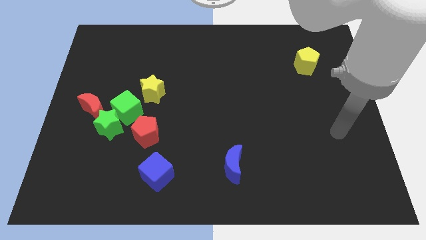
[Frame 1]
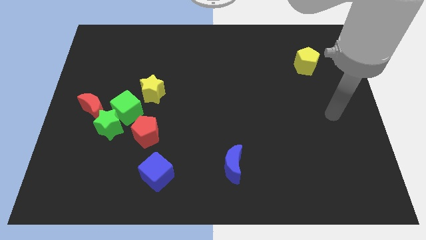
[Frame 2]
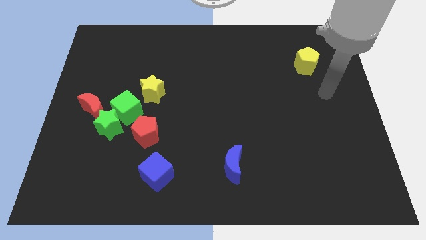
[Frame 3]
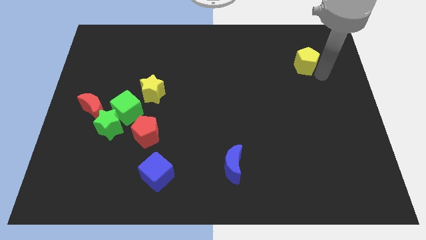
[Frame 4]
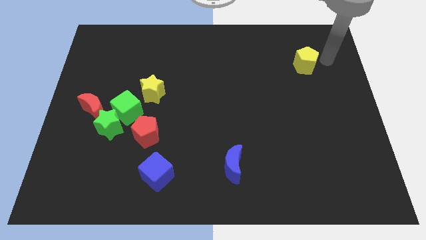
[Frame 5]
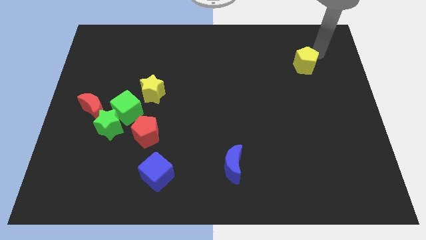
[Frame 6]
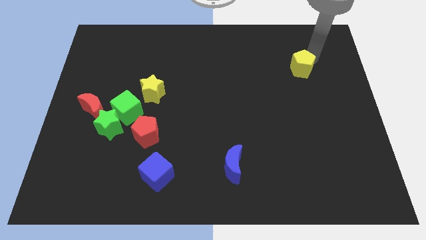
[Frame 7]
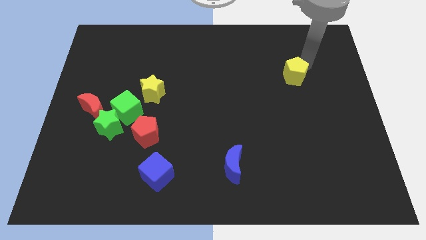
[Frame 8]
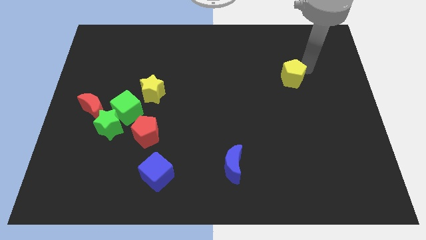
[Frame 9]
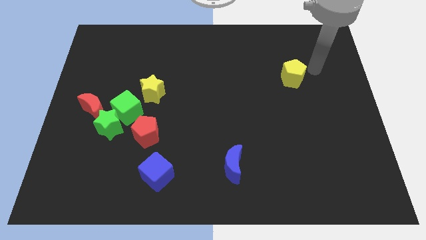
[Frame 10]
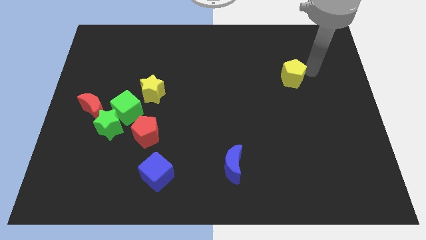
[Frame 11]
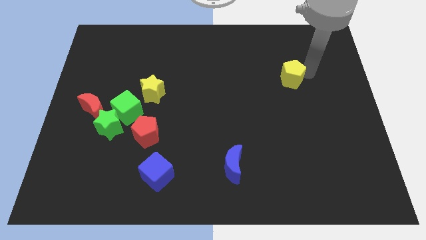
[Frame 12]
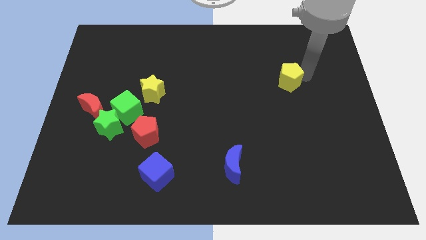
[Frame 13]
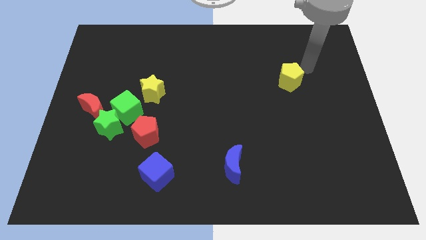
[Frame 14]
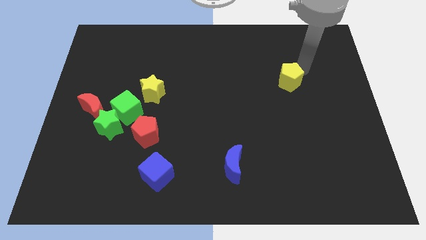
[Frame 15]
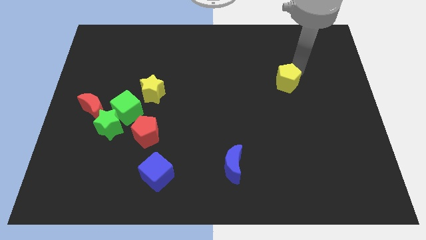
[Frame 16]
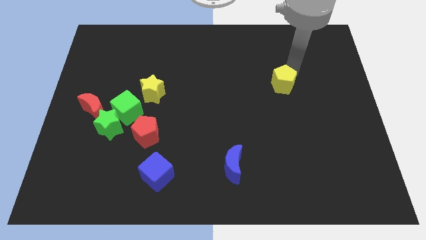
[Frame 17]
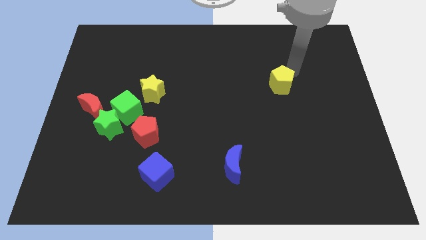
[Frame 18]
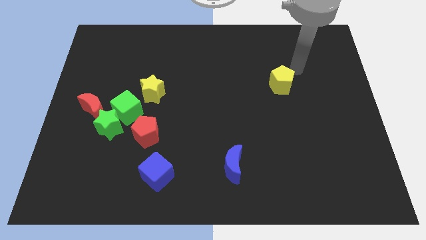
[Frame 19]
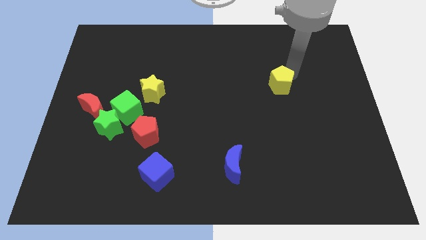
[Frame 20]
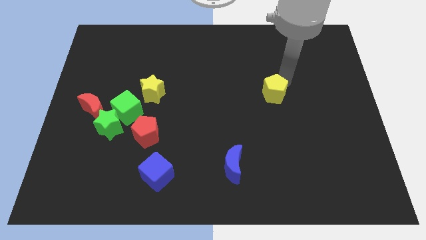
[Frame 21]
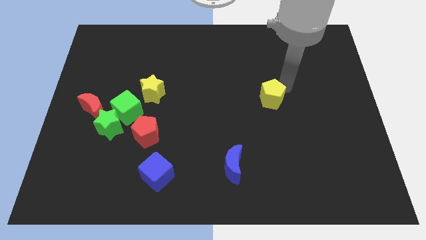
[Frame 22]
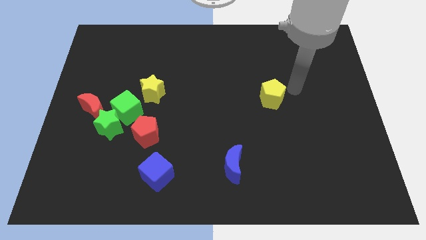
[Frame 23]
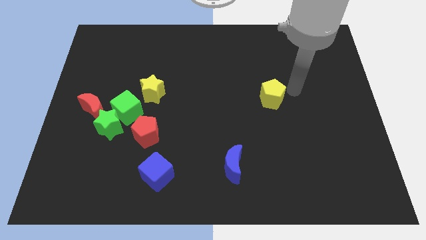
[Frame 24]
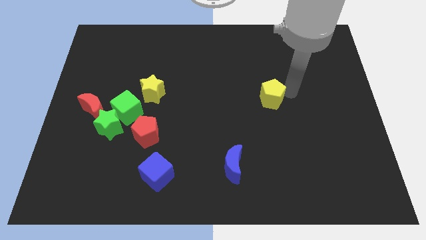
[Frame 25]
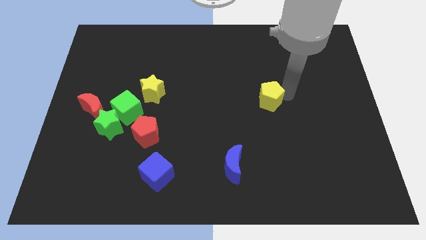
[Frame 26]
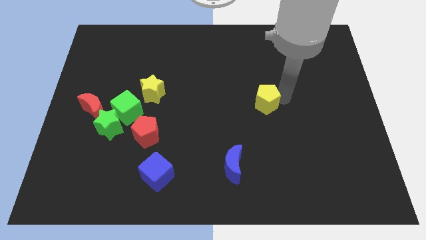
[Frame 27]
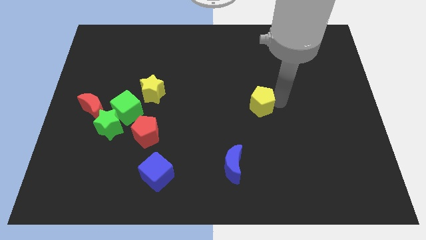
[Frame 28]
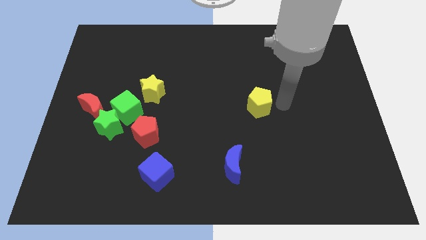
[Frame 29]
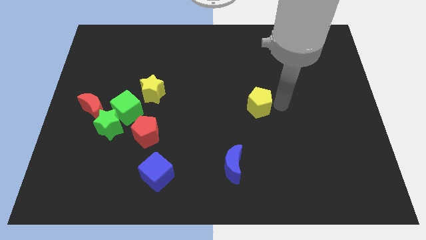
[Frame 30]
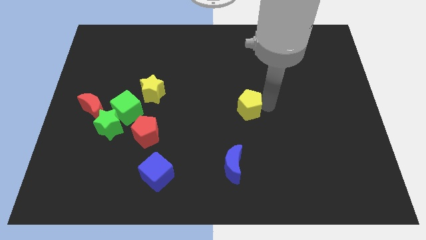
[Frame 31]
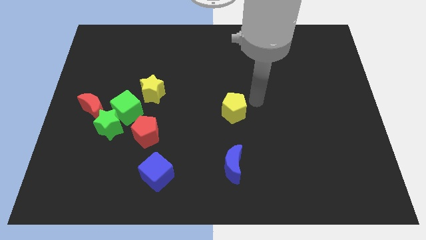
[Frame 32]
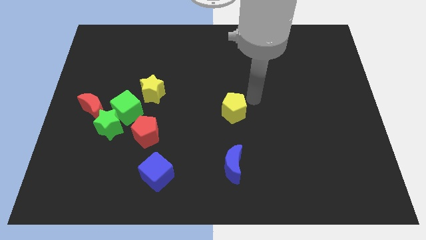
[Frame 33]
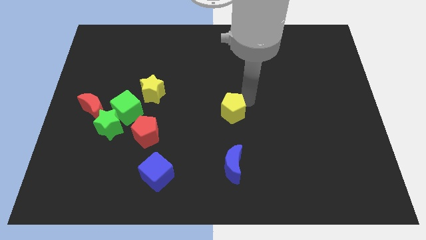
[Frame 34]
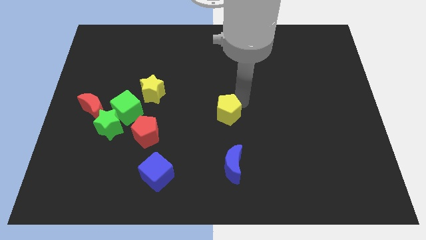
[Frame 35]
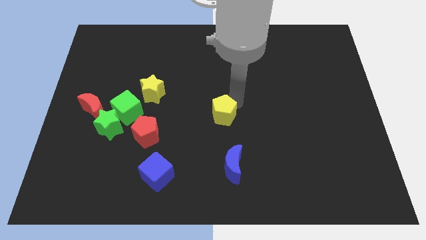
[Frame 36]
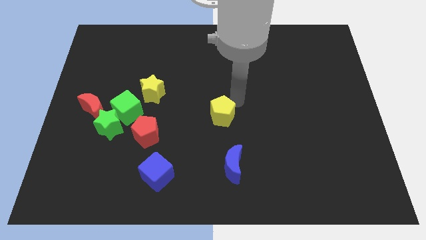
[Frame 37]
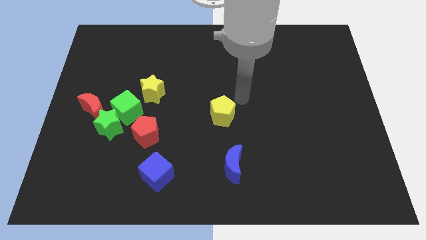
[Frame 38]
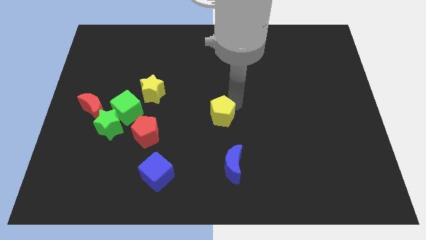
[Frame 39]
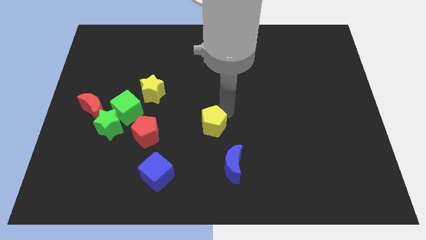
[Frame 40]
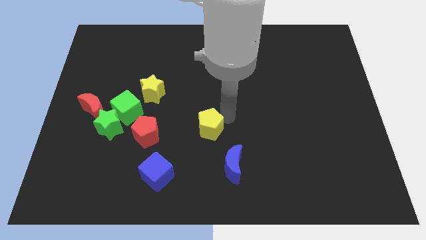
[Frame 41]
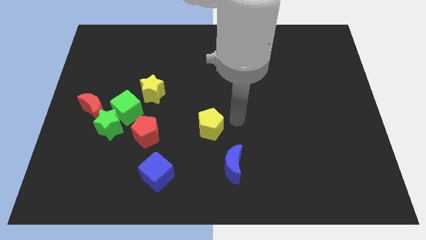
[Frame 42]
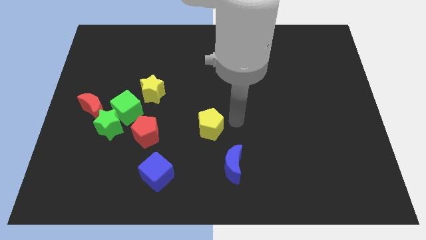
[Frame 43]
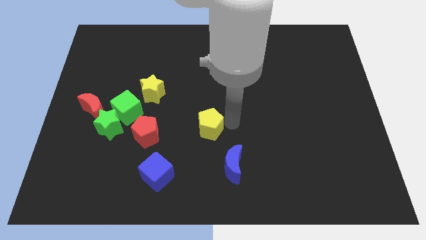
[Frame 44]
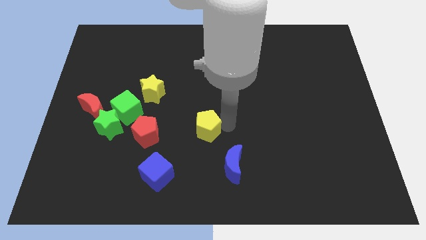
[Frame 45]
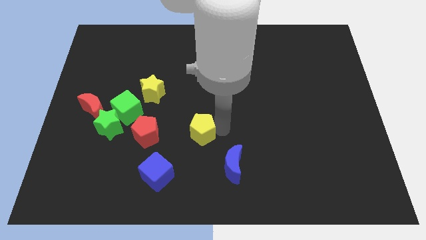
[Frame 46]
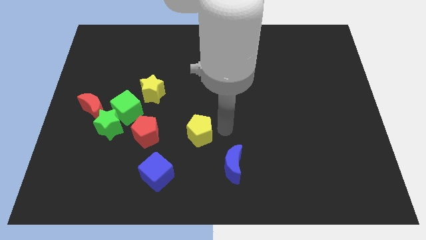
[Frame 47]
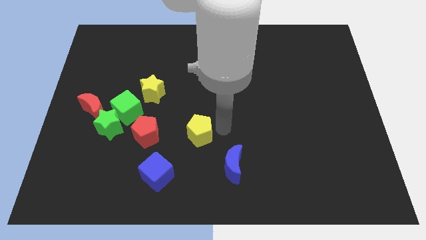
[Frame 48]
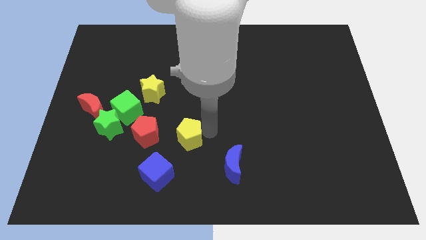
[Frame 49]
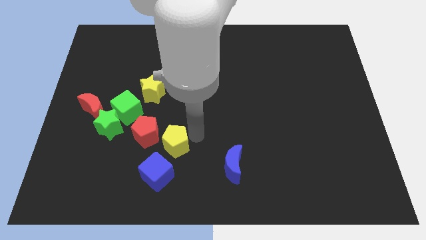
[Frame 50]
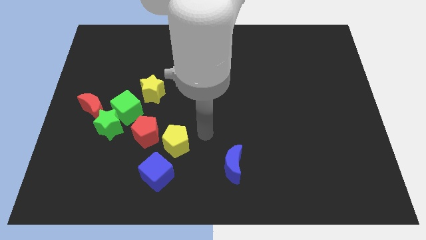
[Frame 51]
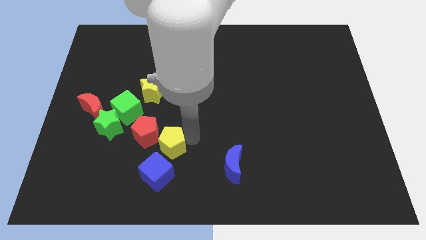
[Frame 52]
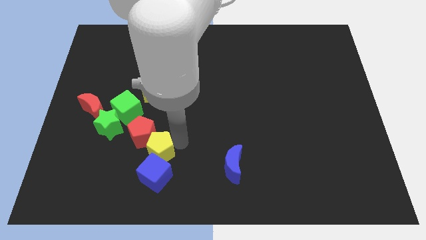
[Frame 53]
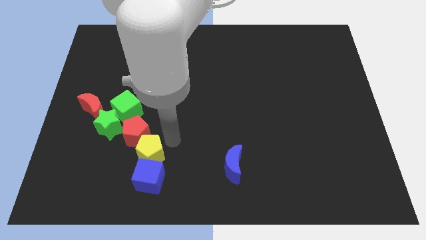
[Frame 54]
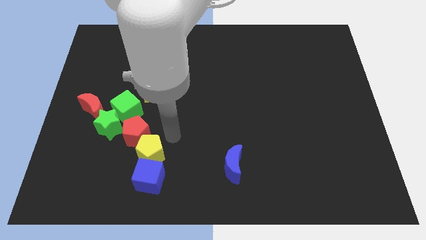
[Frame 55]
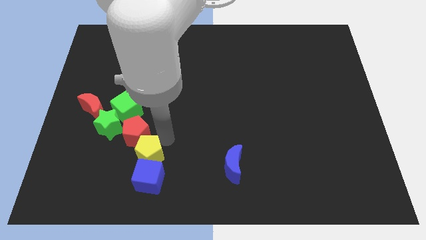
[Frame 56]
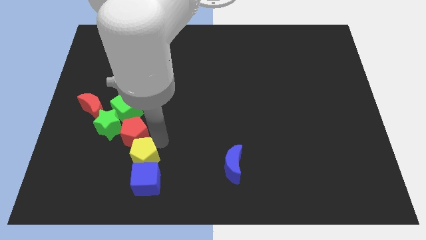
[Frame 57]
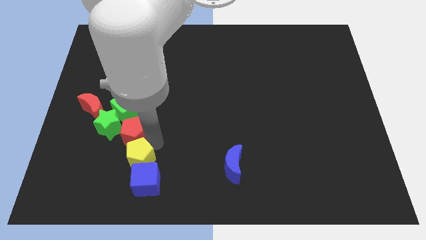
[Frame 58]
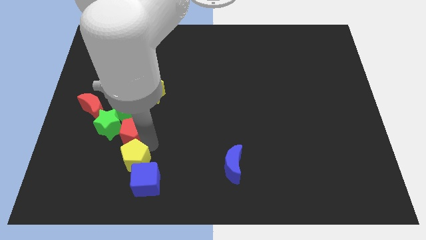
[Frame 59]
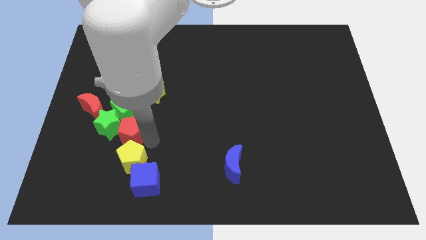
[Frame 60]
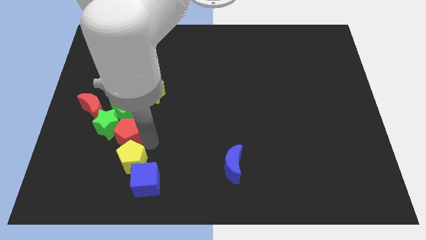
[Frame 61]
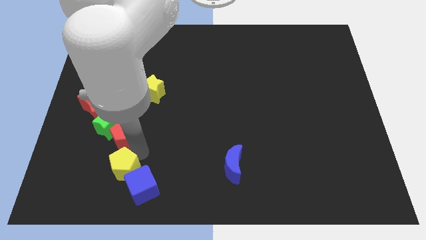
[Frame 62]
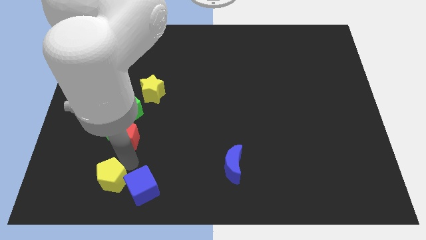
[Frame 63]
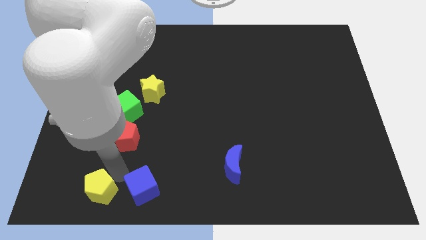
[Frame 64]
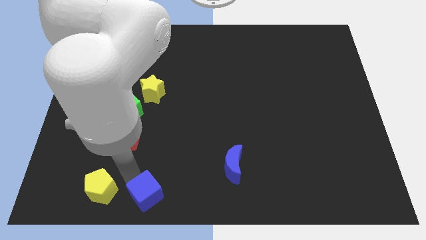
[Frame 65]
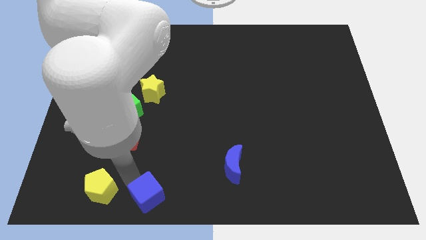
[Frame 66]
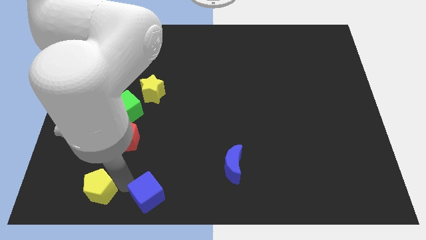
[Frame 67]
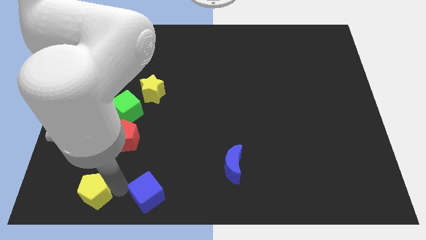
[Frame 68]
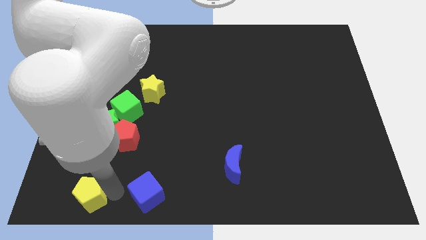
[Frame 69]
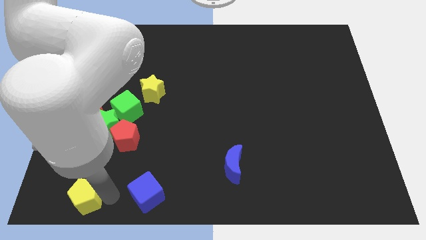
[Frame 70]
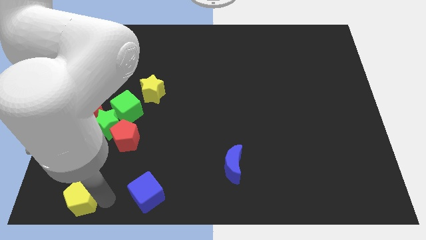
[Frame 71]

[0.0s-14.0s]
slide the yellow pentagon to the bottom left
